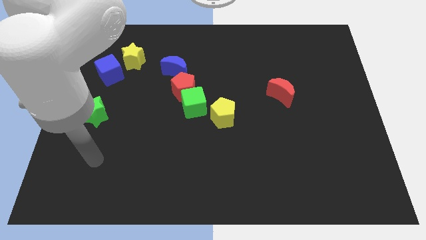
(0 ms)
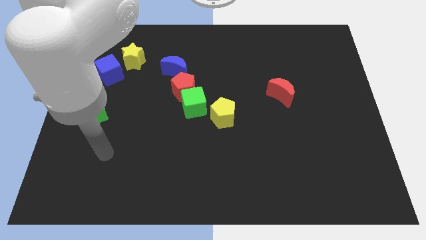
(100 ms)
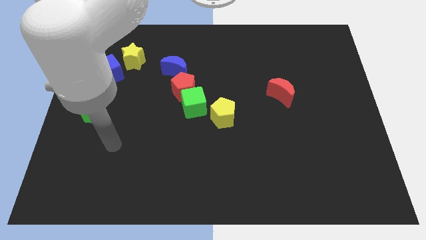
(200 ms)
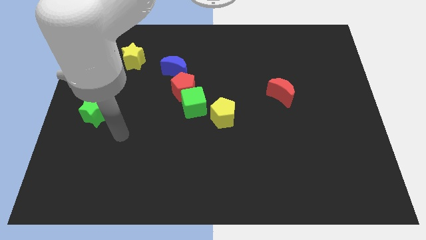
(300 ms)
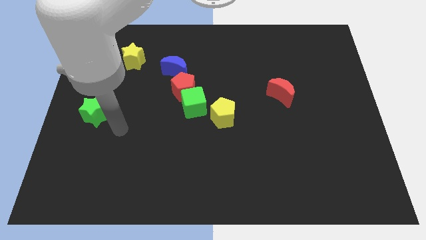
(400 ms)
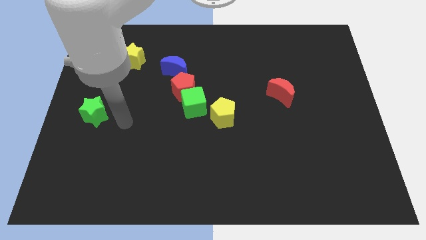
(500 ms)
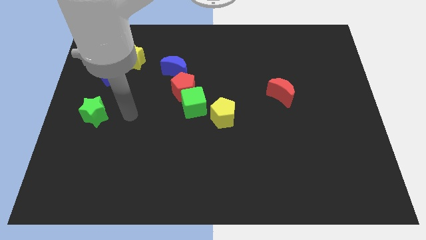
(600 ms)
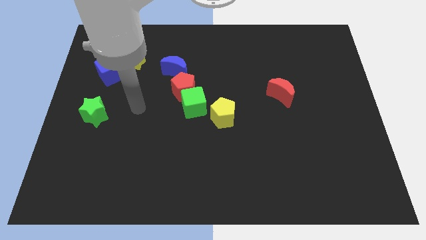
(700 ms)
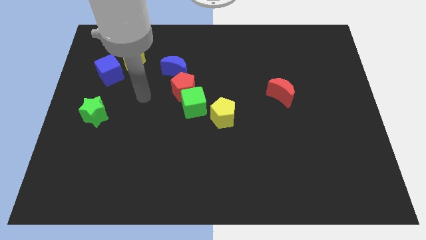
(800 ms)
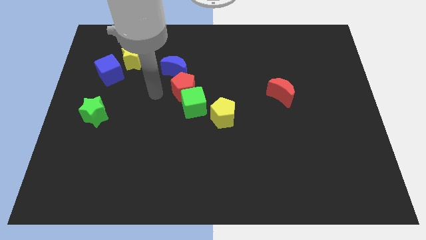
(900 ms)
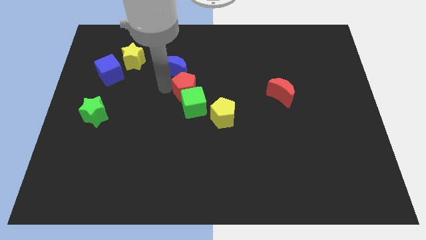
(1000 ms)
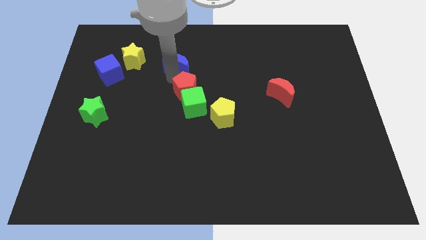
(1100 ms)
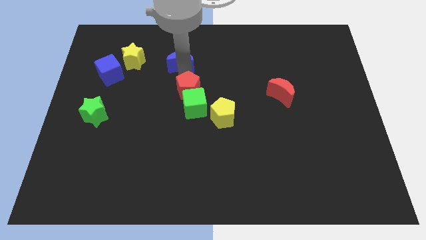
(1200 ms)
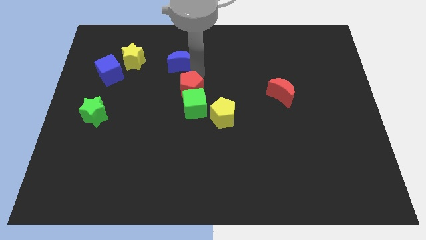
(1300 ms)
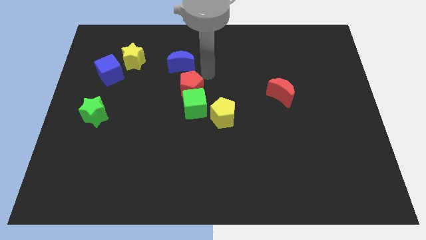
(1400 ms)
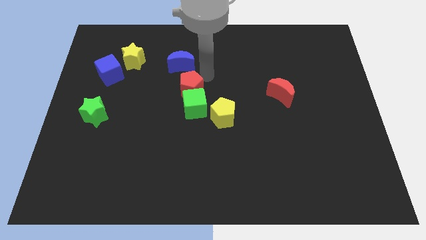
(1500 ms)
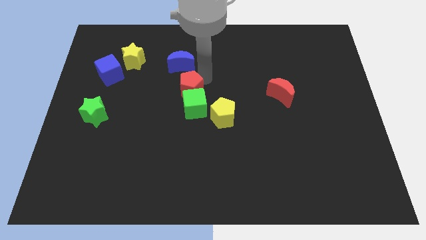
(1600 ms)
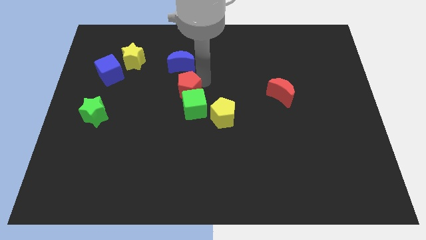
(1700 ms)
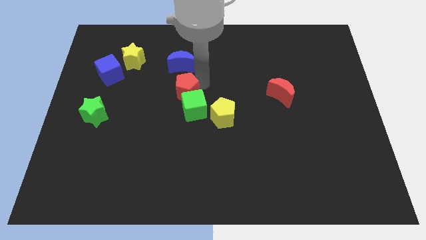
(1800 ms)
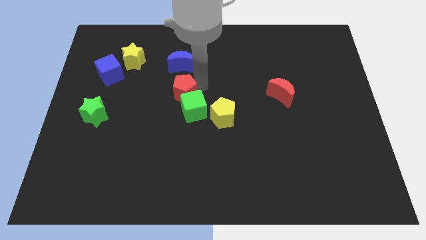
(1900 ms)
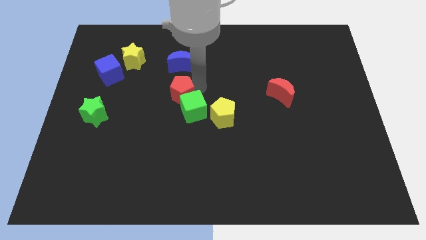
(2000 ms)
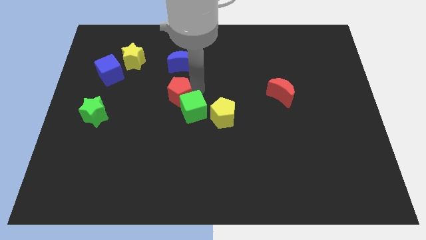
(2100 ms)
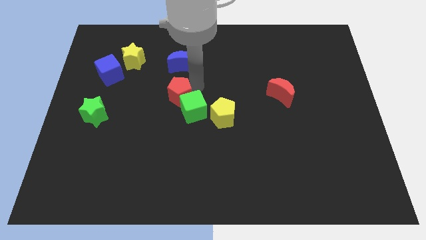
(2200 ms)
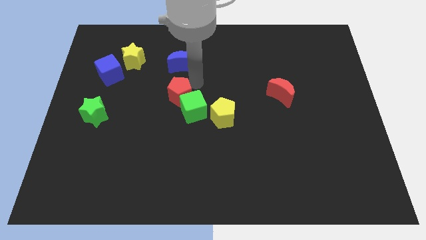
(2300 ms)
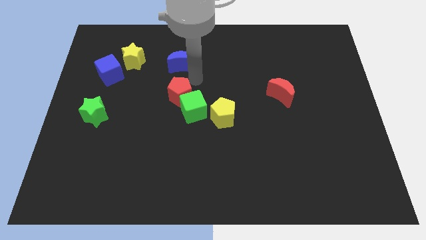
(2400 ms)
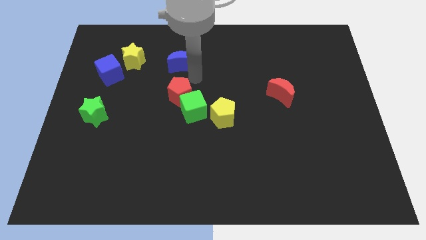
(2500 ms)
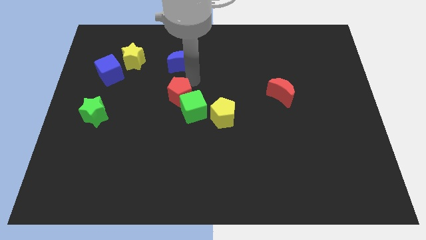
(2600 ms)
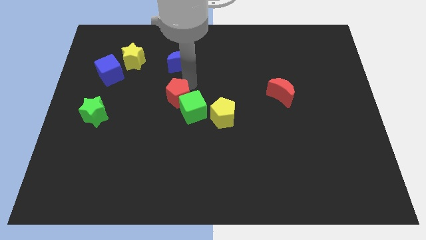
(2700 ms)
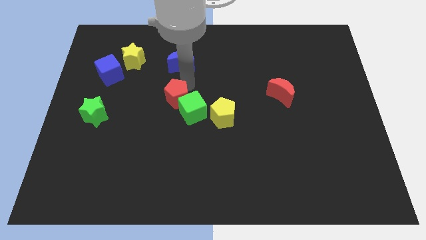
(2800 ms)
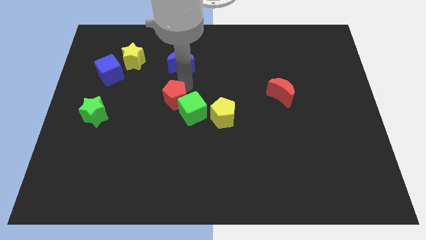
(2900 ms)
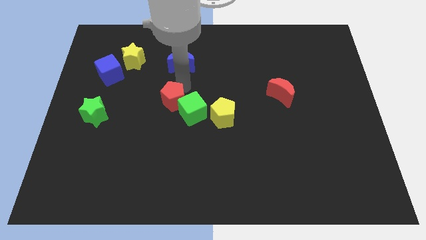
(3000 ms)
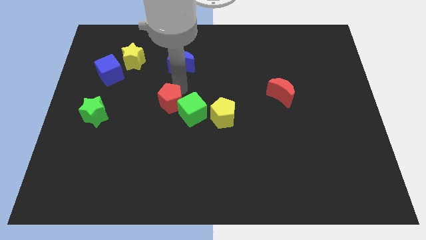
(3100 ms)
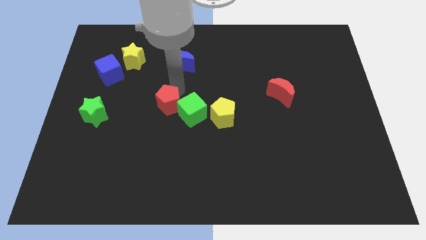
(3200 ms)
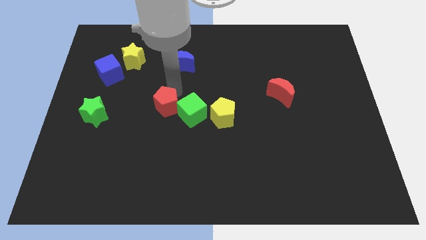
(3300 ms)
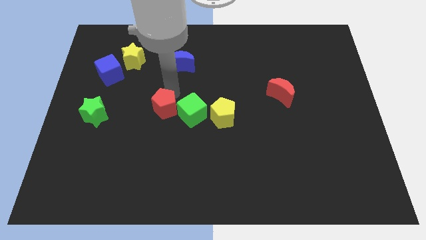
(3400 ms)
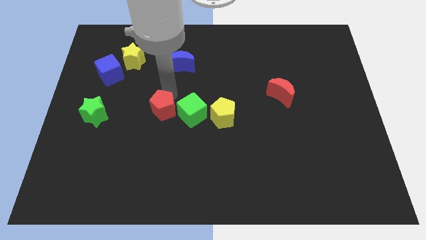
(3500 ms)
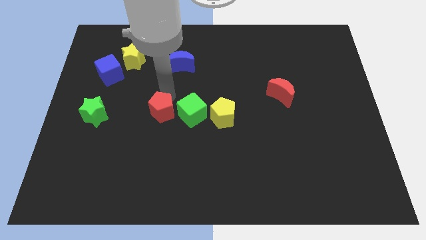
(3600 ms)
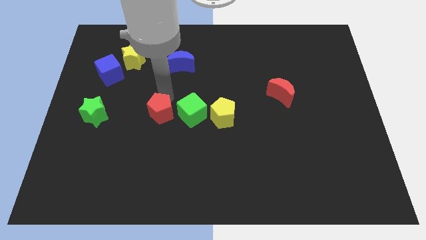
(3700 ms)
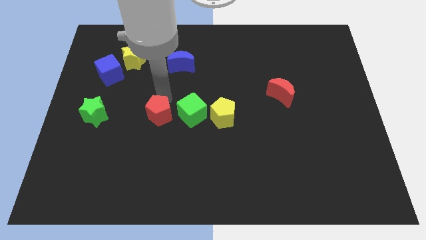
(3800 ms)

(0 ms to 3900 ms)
move the red pentagon away from the green cube and blue moon

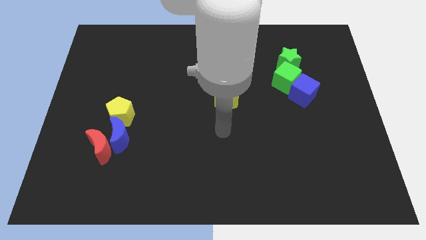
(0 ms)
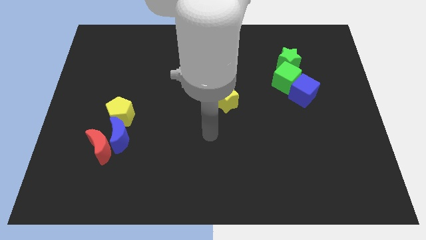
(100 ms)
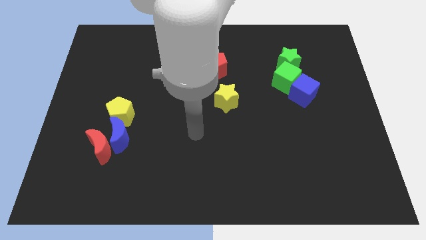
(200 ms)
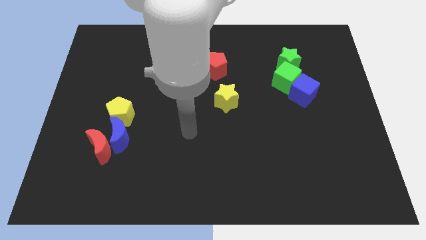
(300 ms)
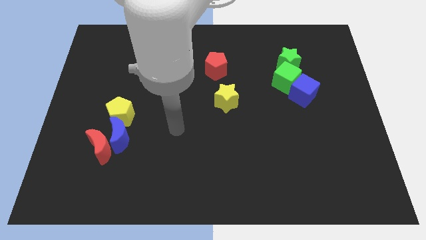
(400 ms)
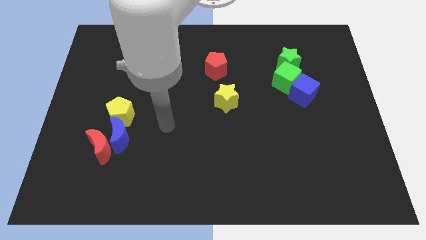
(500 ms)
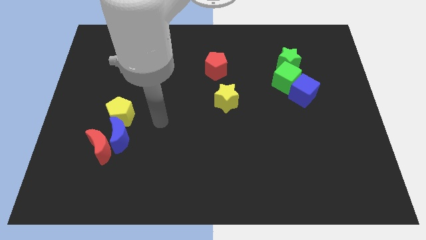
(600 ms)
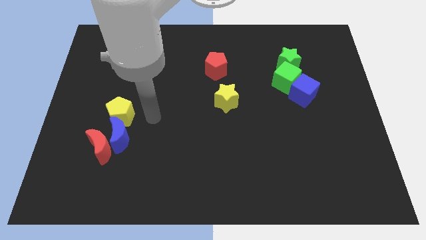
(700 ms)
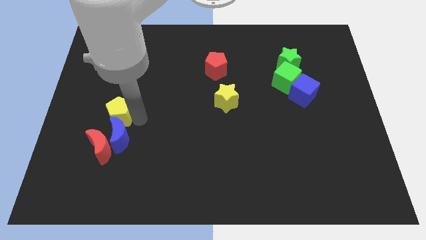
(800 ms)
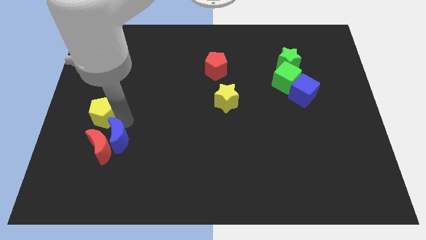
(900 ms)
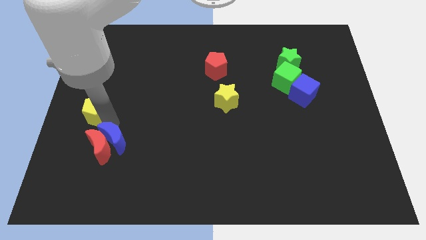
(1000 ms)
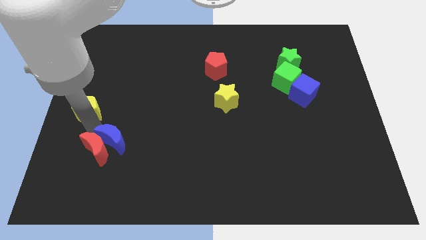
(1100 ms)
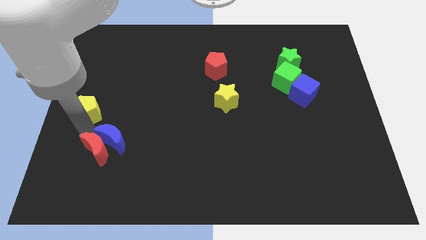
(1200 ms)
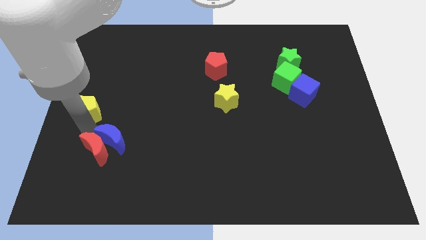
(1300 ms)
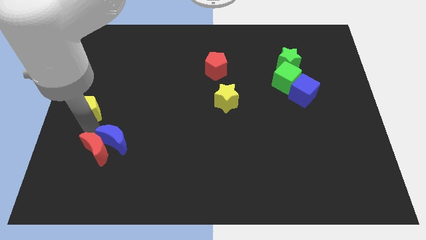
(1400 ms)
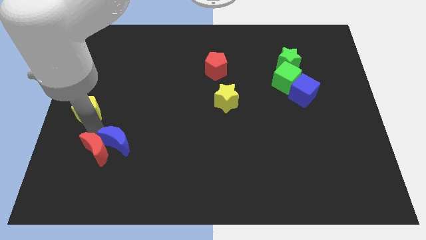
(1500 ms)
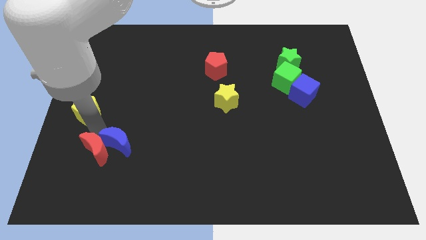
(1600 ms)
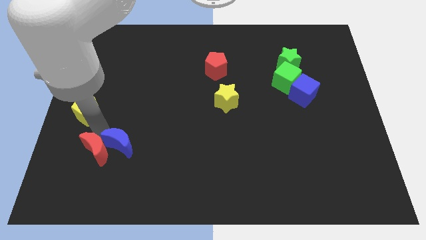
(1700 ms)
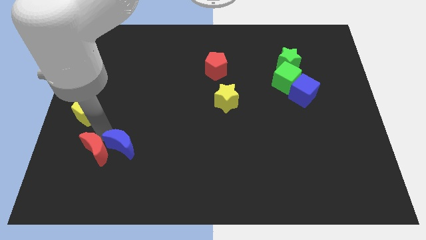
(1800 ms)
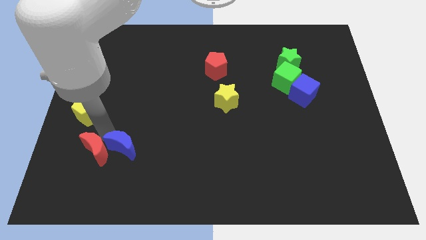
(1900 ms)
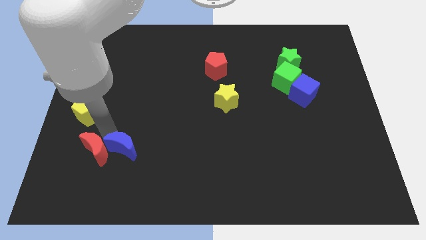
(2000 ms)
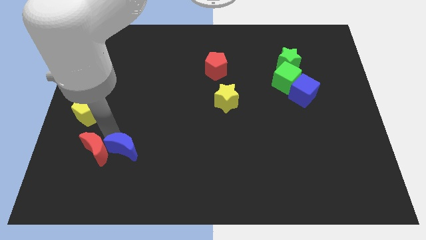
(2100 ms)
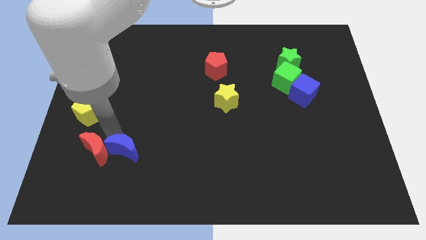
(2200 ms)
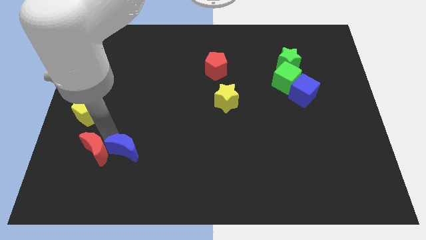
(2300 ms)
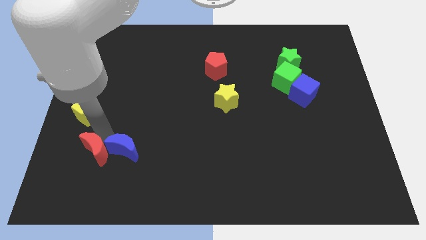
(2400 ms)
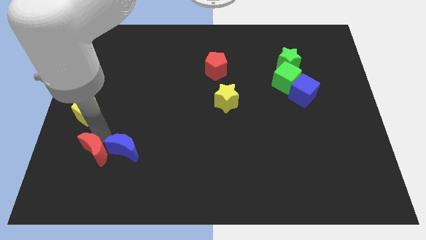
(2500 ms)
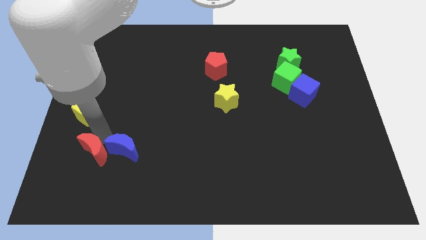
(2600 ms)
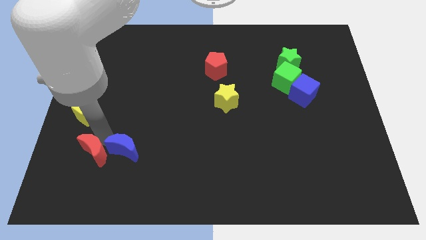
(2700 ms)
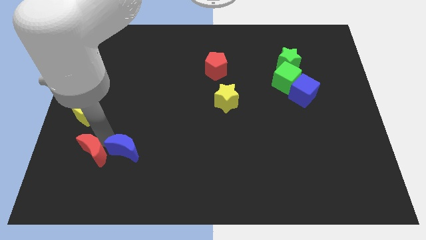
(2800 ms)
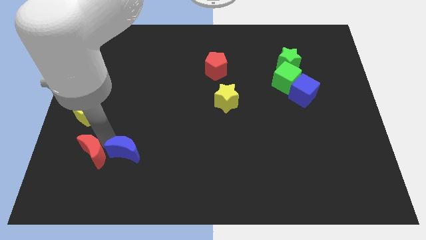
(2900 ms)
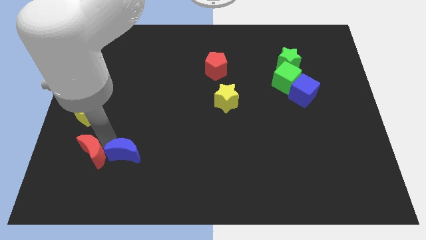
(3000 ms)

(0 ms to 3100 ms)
move the blue moon away from the red moon and yellow pentagon

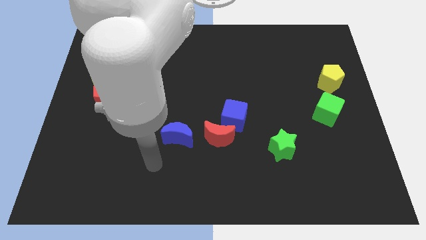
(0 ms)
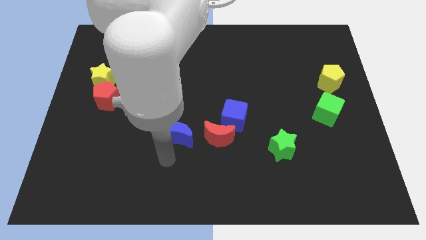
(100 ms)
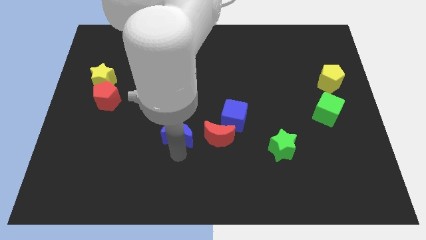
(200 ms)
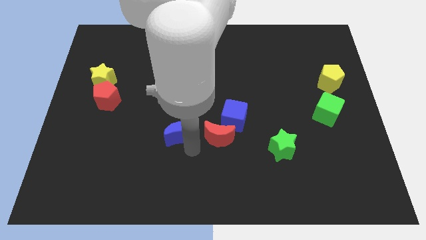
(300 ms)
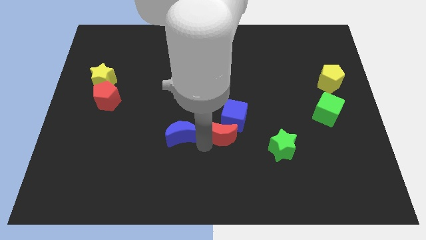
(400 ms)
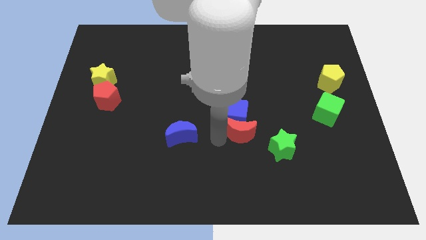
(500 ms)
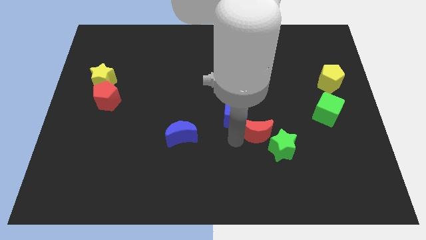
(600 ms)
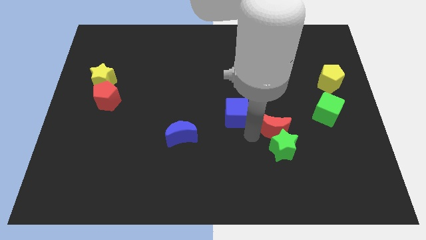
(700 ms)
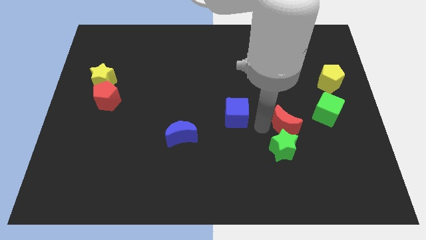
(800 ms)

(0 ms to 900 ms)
pull the blue cube apart from the red moon

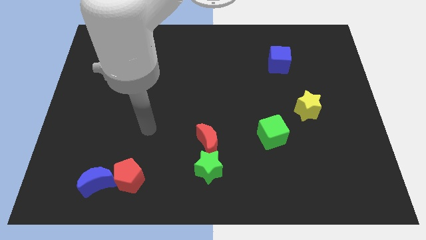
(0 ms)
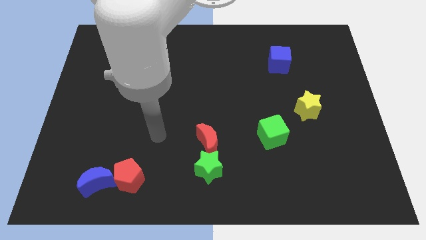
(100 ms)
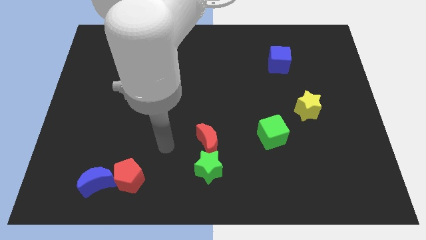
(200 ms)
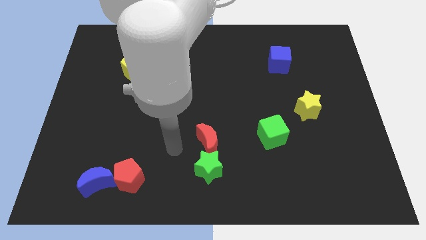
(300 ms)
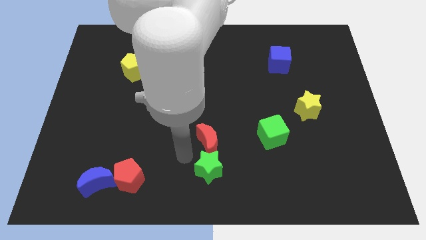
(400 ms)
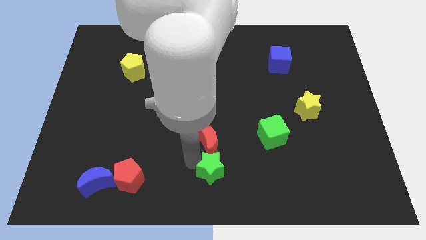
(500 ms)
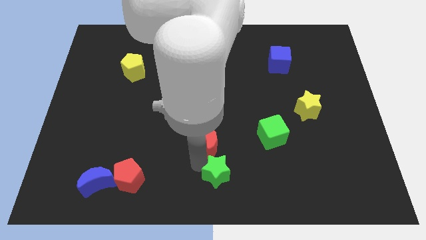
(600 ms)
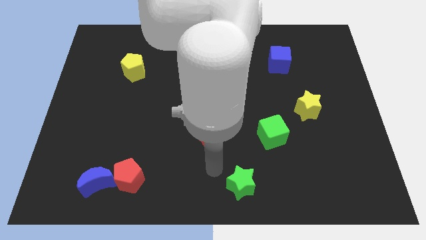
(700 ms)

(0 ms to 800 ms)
separate the red moon from the green star

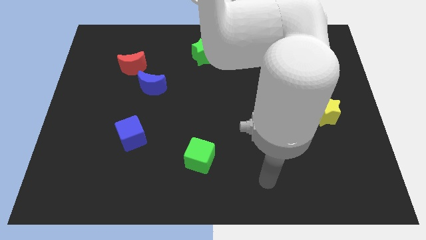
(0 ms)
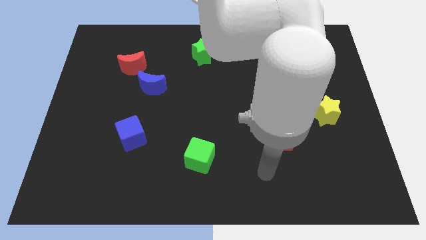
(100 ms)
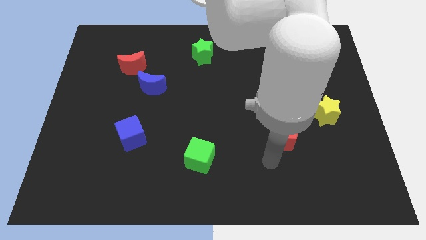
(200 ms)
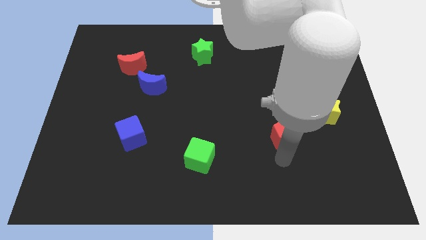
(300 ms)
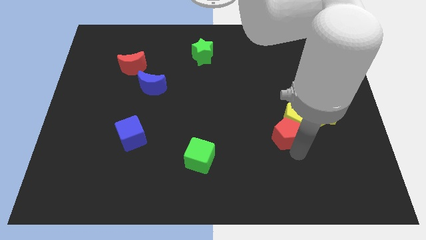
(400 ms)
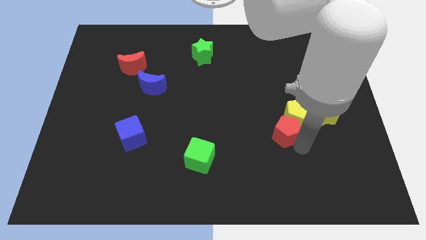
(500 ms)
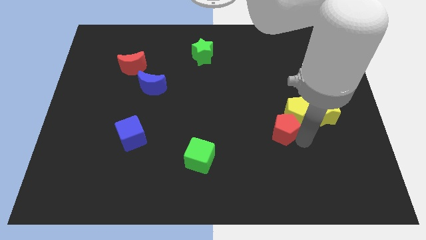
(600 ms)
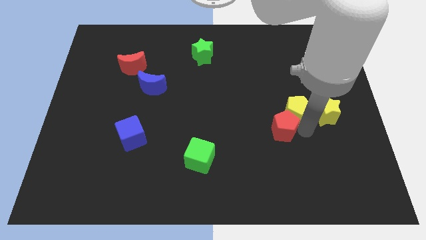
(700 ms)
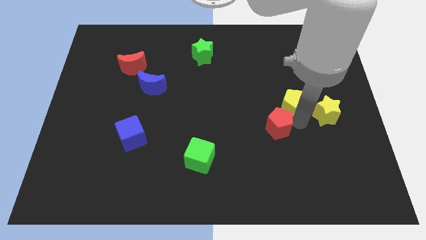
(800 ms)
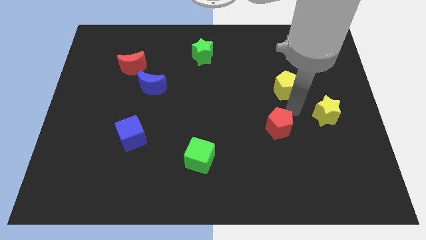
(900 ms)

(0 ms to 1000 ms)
separate the red pentagon from the yellow pentagon
